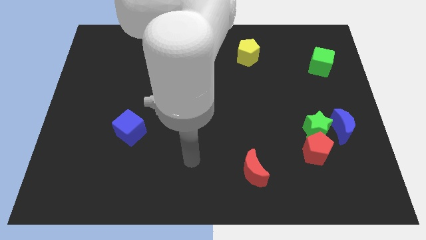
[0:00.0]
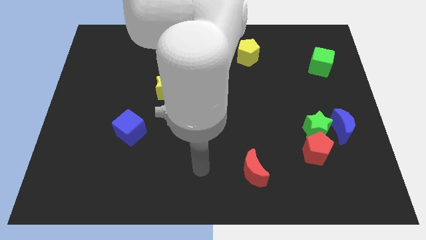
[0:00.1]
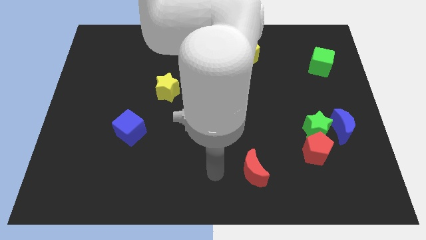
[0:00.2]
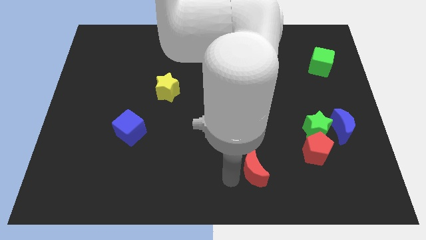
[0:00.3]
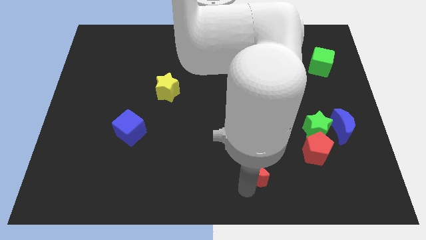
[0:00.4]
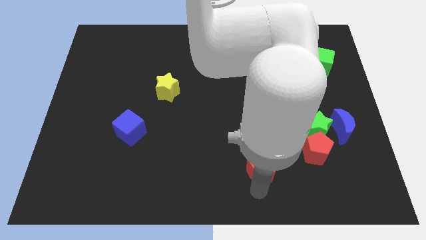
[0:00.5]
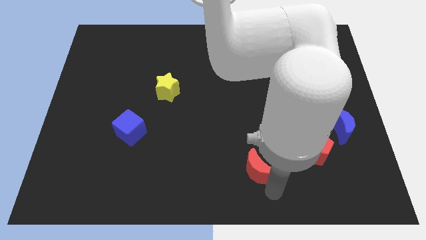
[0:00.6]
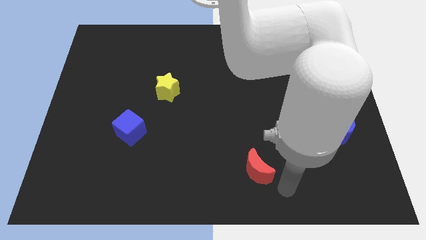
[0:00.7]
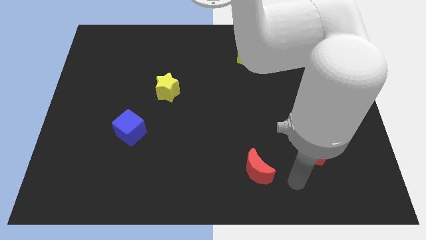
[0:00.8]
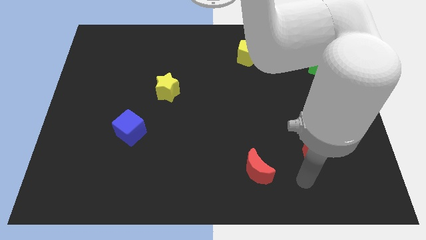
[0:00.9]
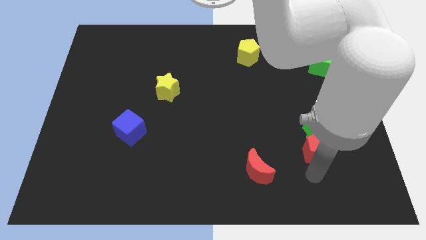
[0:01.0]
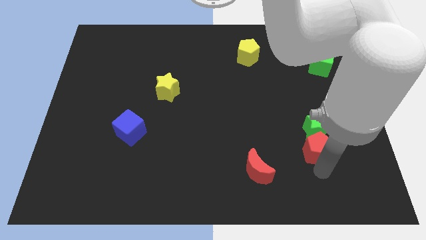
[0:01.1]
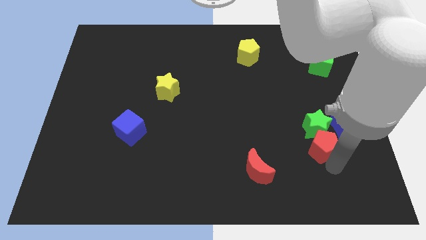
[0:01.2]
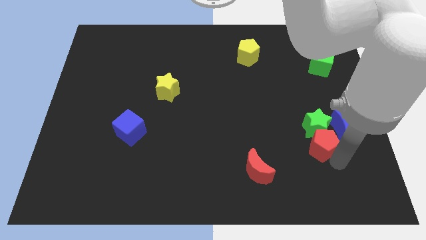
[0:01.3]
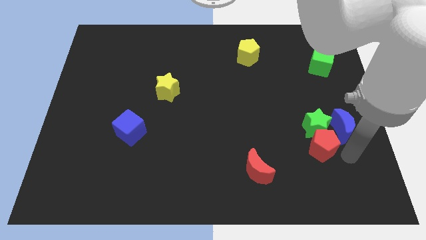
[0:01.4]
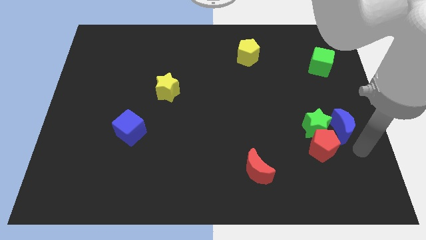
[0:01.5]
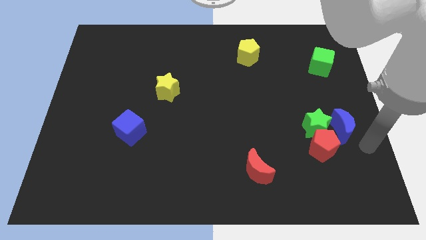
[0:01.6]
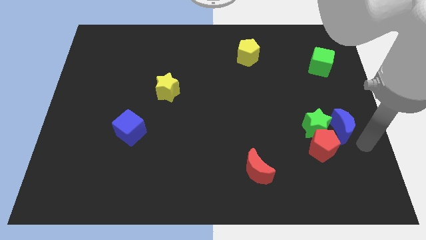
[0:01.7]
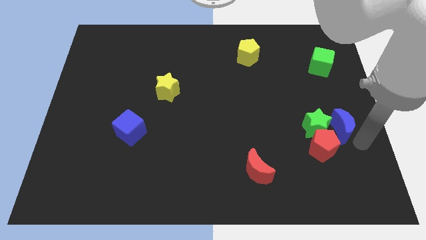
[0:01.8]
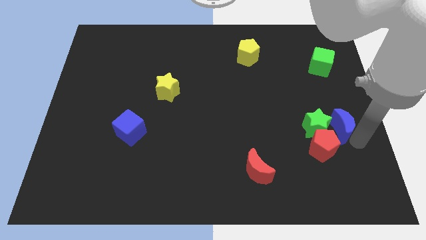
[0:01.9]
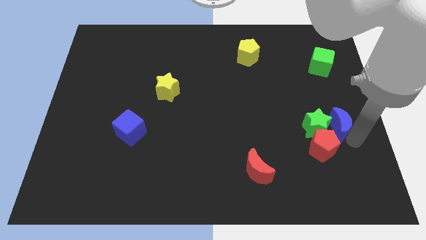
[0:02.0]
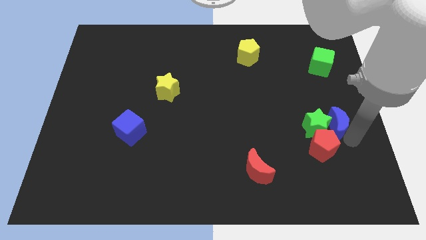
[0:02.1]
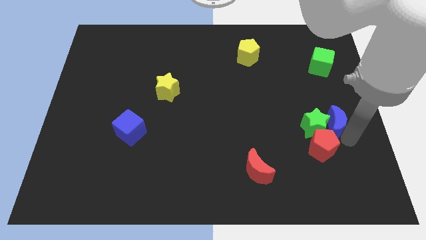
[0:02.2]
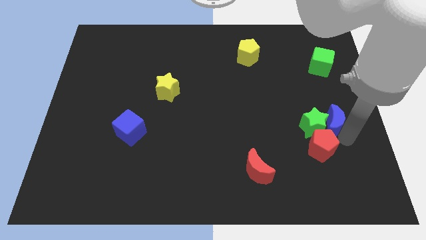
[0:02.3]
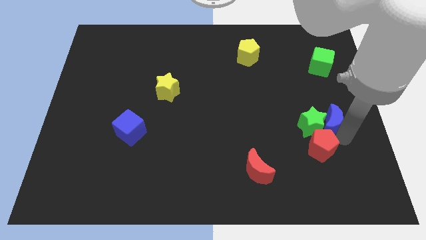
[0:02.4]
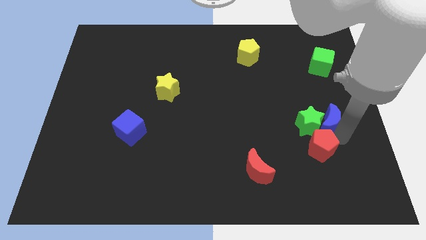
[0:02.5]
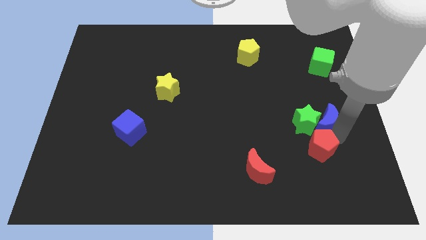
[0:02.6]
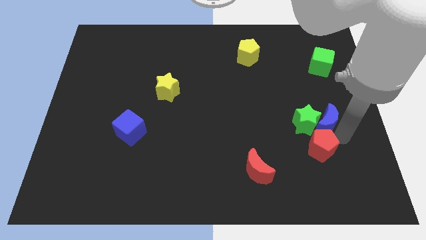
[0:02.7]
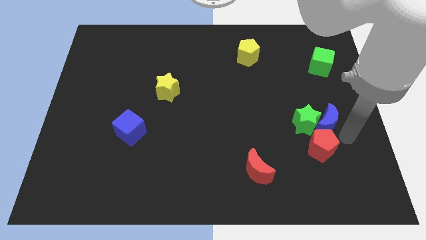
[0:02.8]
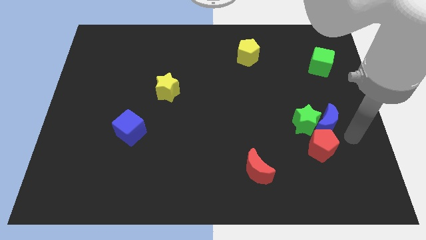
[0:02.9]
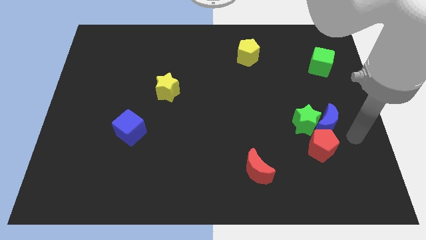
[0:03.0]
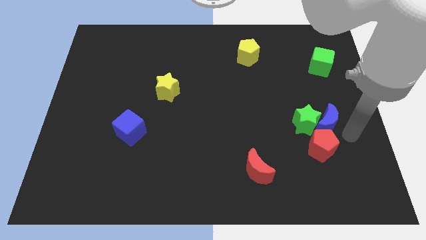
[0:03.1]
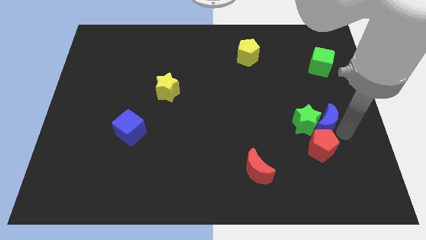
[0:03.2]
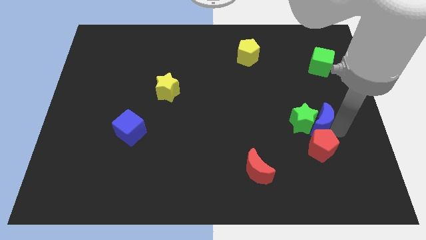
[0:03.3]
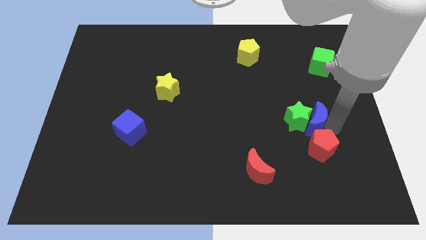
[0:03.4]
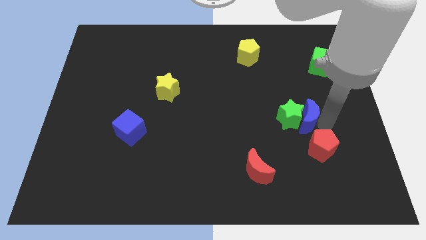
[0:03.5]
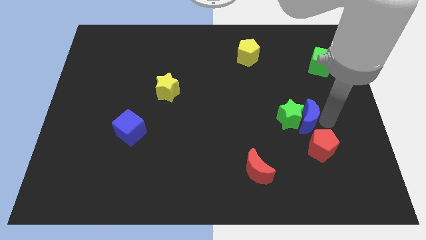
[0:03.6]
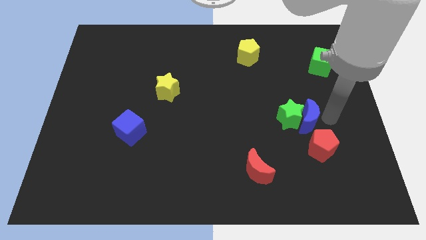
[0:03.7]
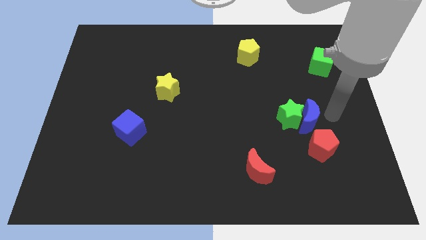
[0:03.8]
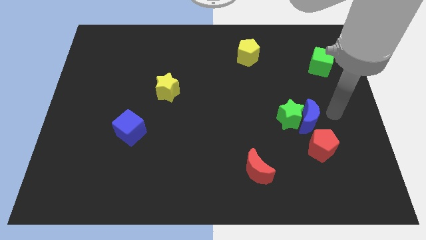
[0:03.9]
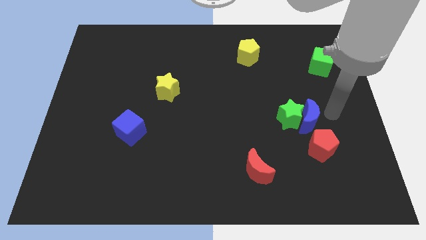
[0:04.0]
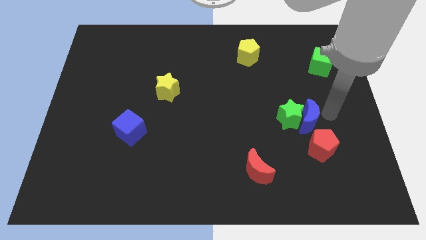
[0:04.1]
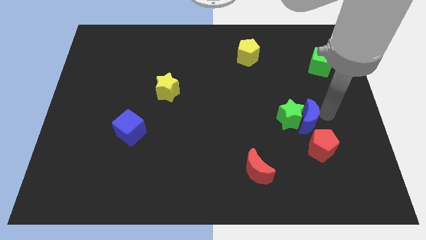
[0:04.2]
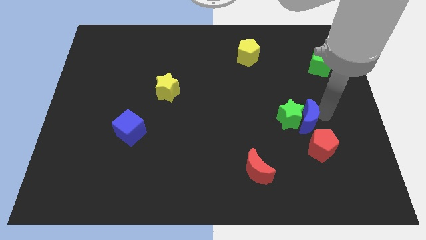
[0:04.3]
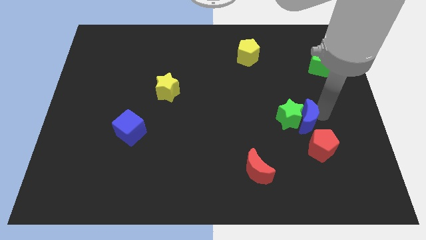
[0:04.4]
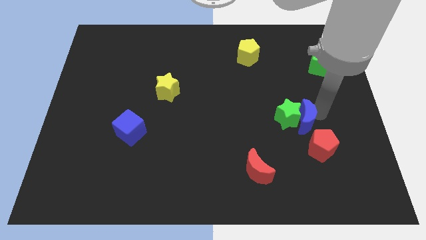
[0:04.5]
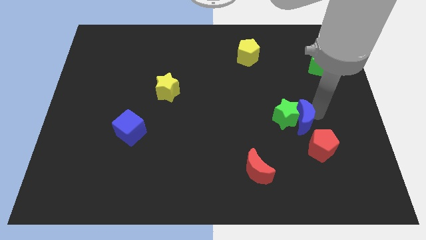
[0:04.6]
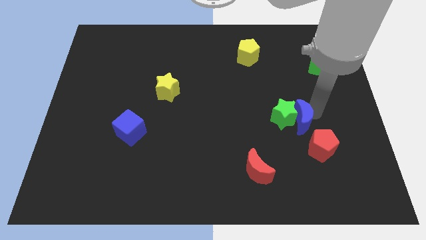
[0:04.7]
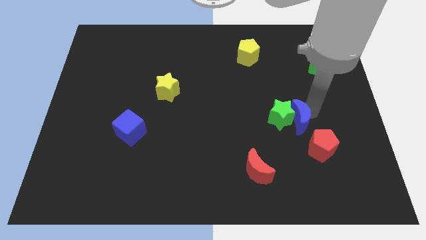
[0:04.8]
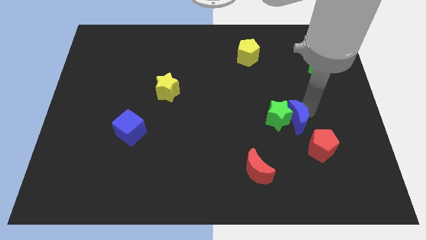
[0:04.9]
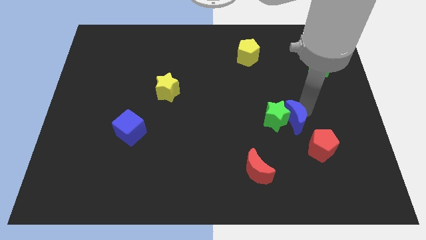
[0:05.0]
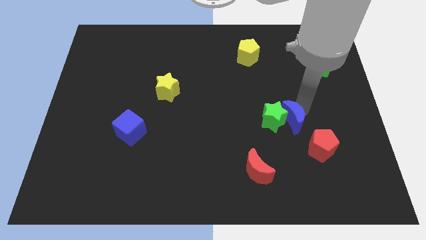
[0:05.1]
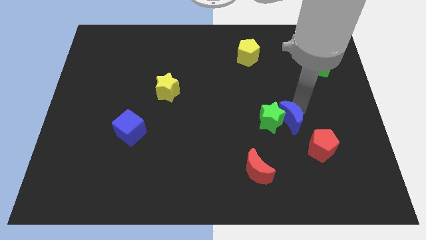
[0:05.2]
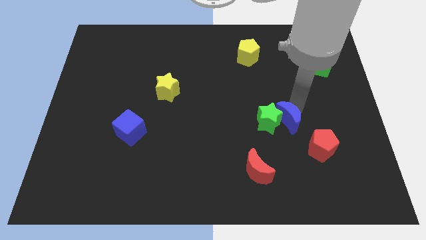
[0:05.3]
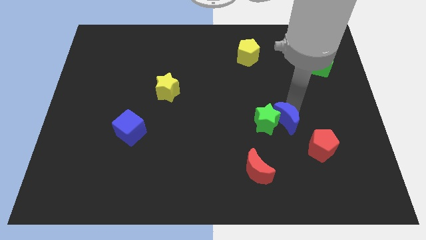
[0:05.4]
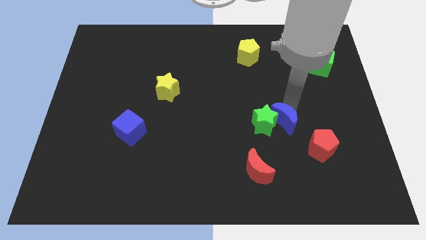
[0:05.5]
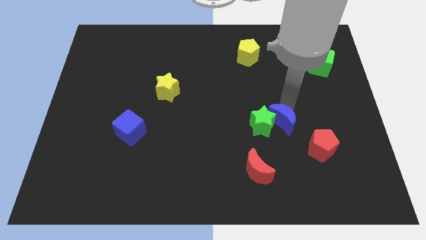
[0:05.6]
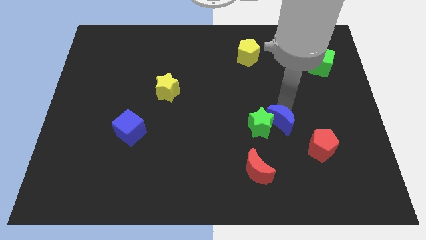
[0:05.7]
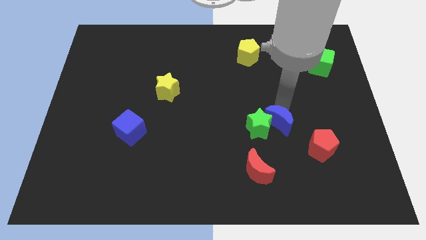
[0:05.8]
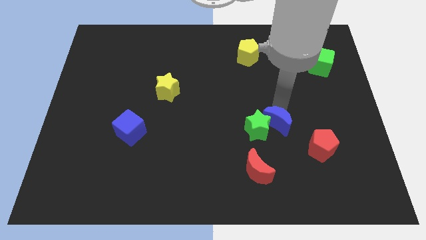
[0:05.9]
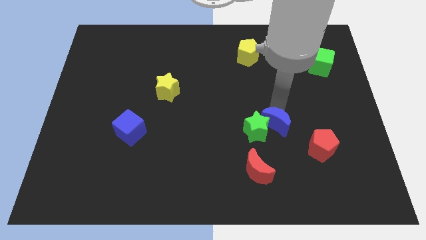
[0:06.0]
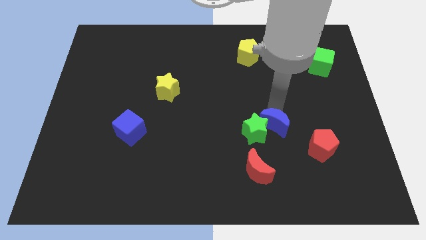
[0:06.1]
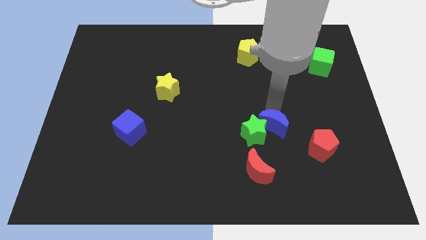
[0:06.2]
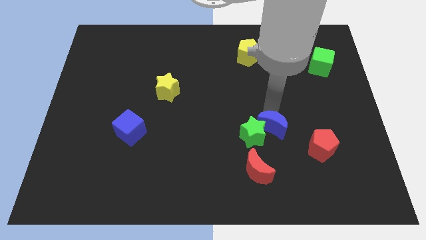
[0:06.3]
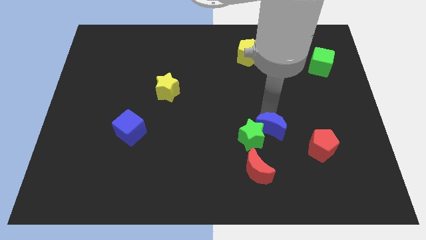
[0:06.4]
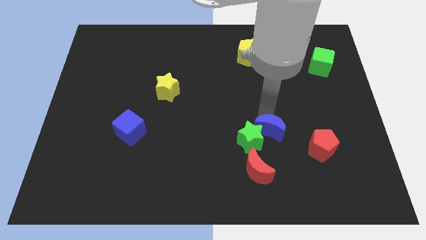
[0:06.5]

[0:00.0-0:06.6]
slide the blue moon left of the red pentagon

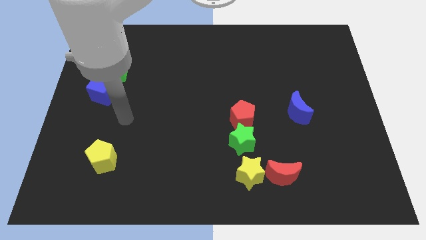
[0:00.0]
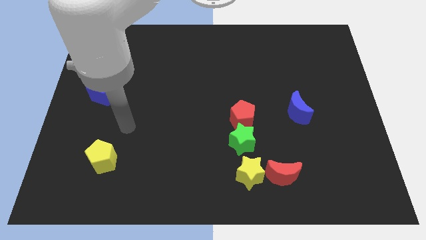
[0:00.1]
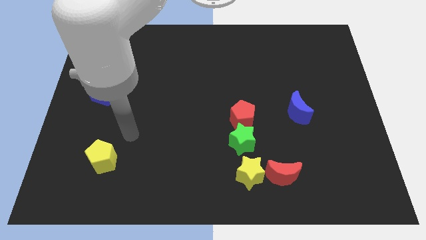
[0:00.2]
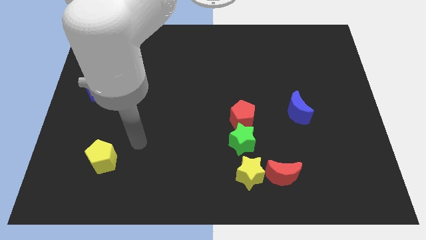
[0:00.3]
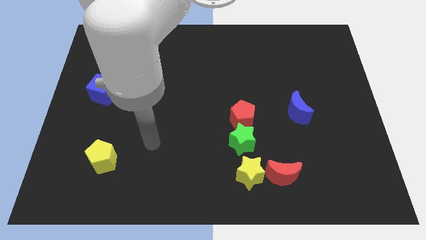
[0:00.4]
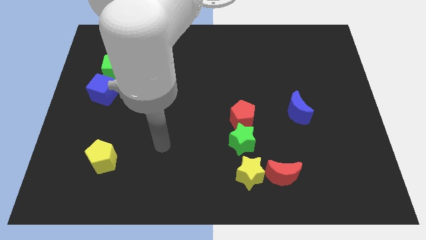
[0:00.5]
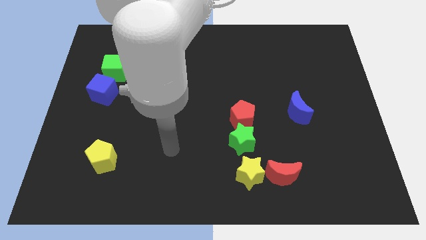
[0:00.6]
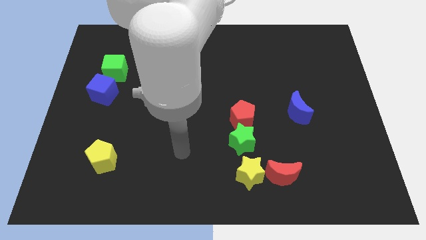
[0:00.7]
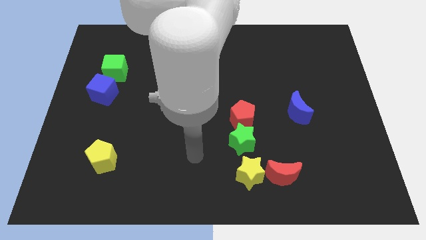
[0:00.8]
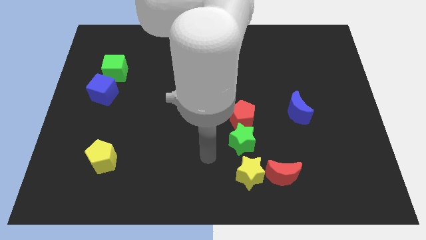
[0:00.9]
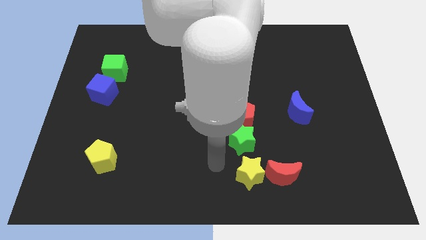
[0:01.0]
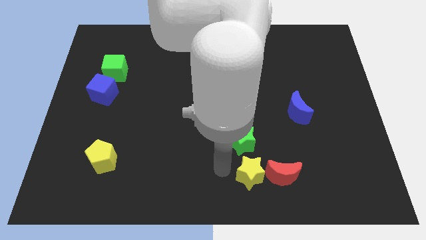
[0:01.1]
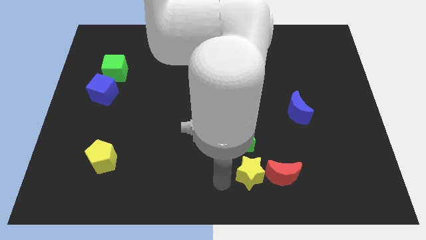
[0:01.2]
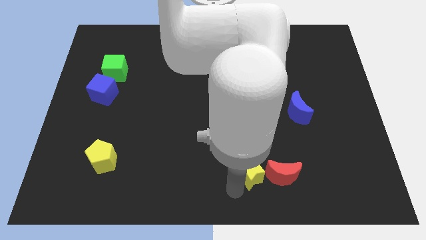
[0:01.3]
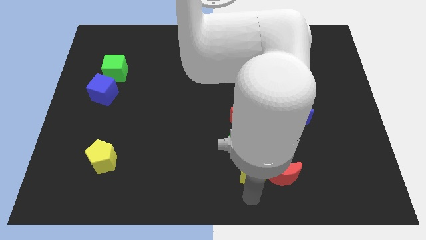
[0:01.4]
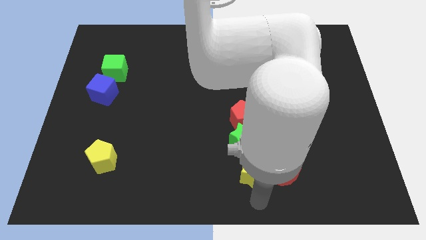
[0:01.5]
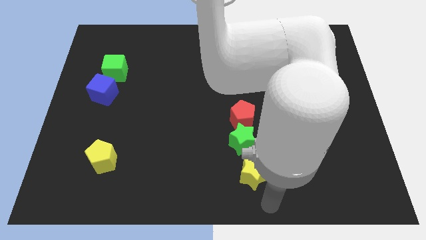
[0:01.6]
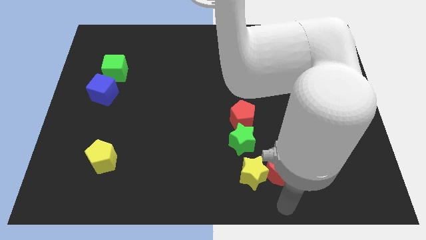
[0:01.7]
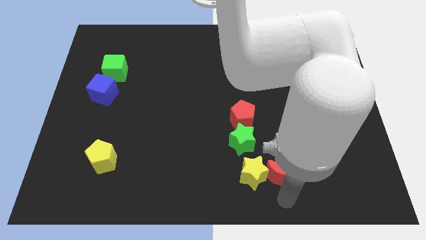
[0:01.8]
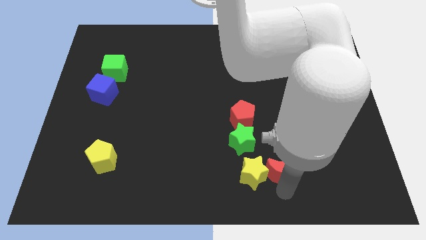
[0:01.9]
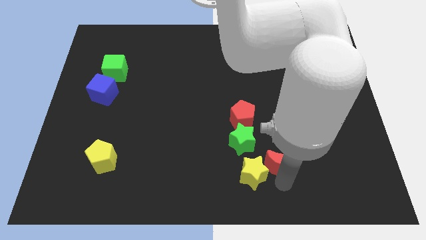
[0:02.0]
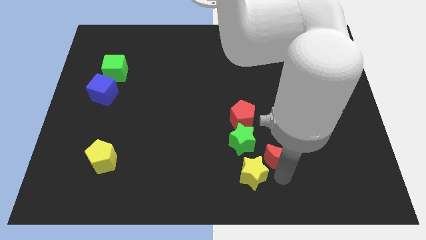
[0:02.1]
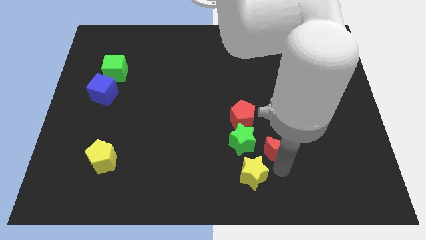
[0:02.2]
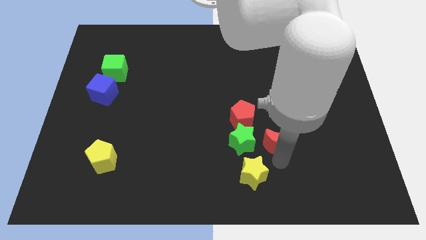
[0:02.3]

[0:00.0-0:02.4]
put the red moon to the bottom left of the blue moon
